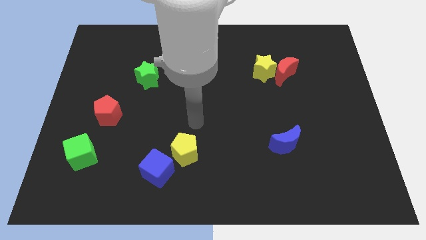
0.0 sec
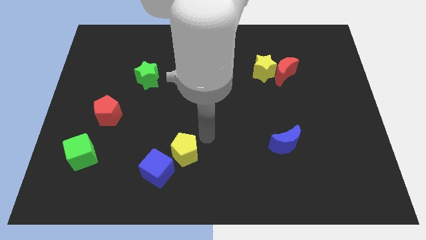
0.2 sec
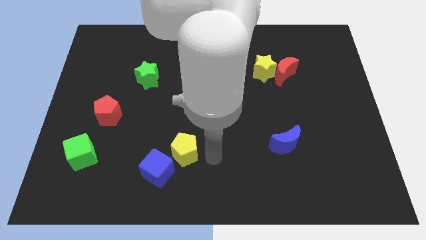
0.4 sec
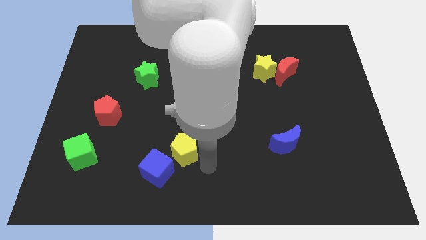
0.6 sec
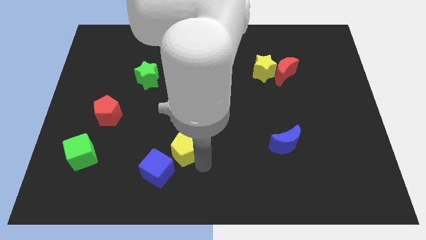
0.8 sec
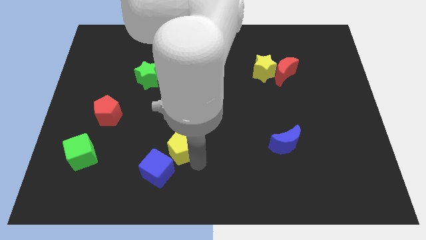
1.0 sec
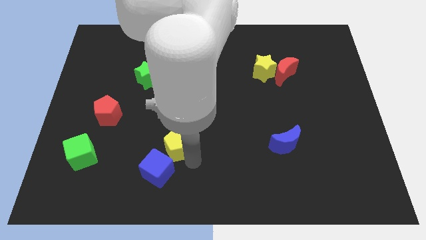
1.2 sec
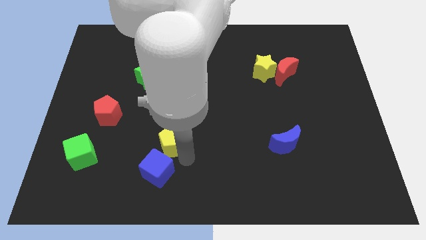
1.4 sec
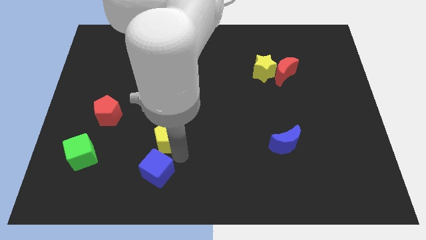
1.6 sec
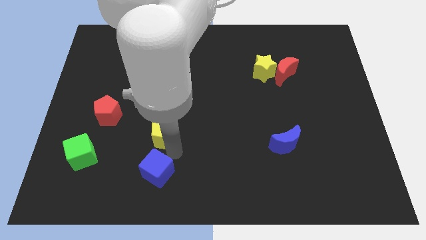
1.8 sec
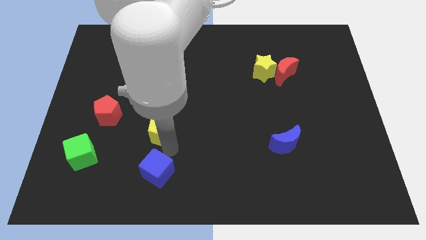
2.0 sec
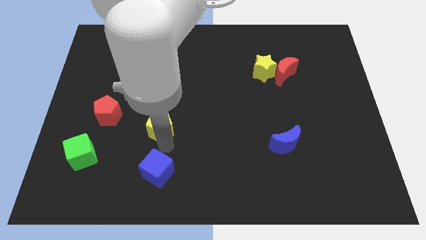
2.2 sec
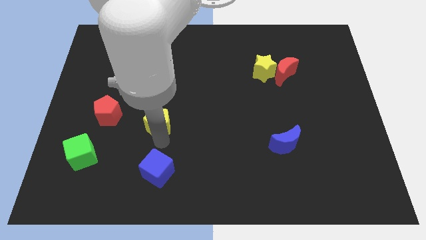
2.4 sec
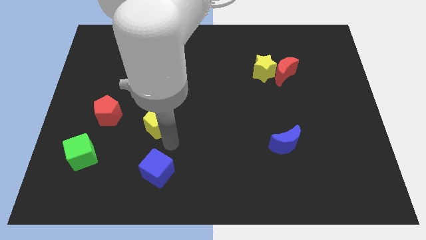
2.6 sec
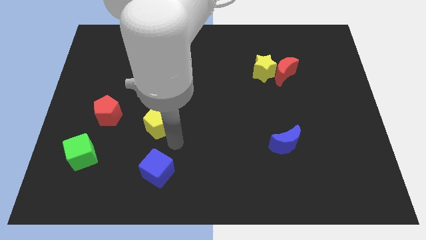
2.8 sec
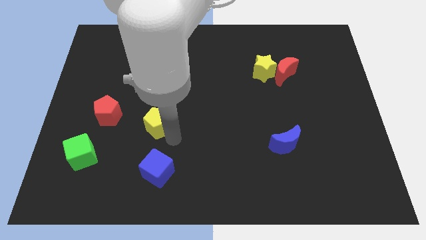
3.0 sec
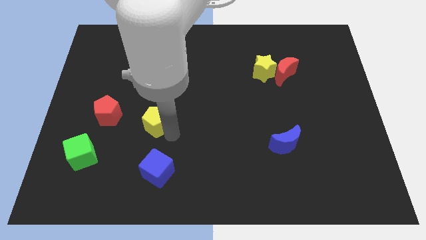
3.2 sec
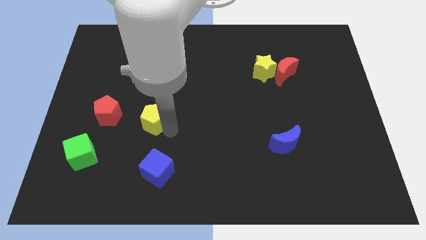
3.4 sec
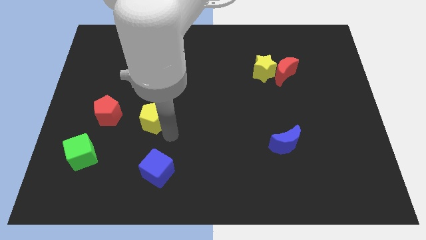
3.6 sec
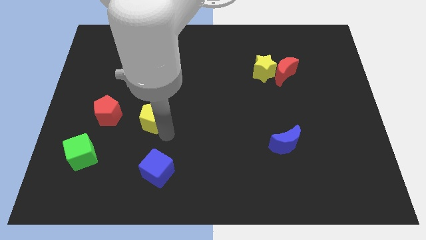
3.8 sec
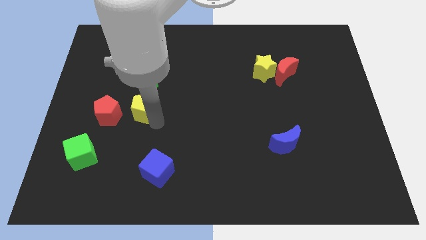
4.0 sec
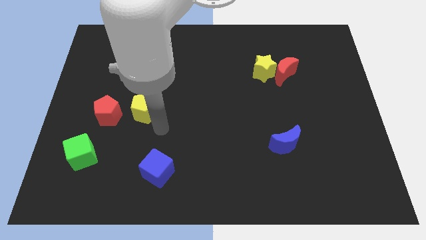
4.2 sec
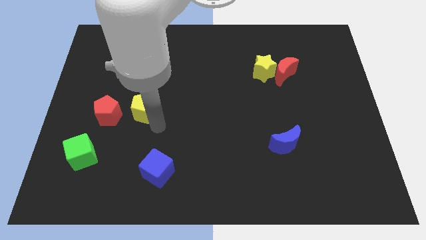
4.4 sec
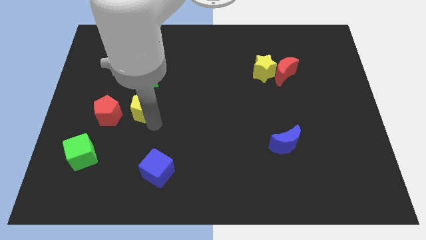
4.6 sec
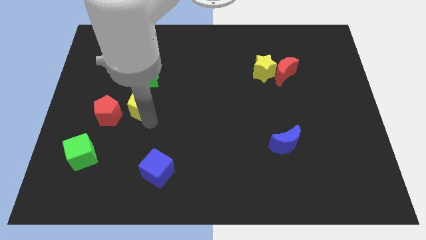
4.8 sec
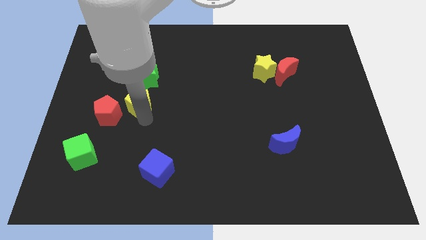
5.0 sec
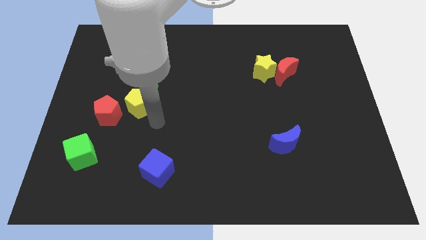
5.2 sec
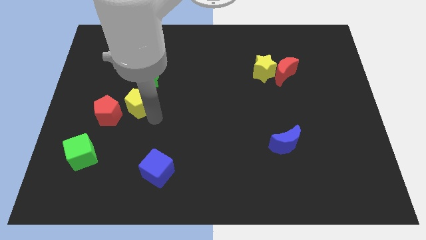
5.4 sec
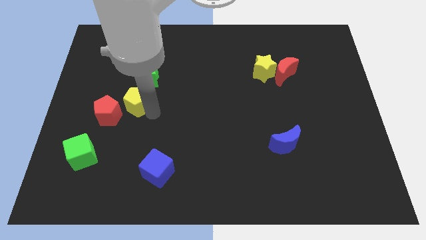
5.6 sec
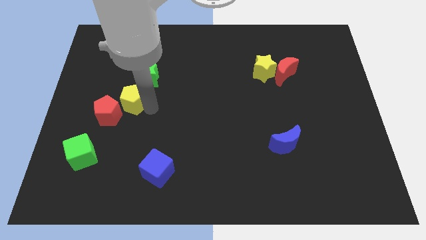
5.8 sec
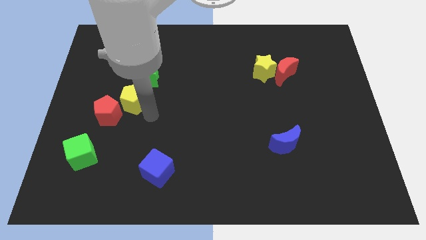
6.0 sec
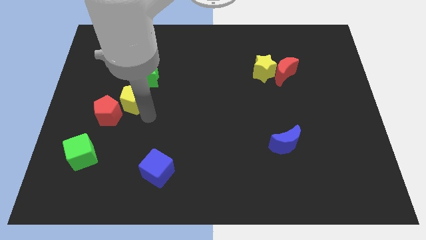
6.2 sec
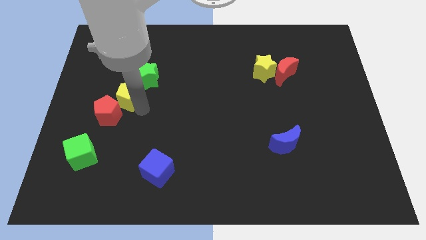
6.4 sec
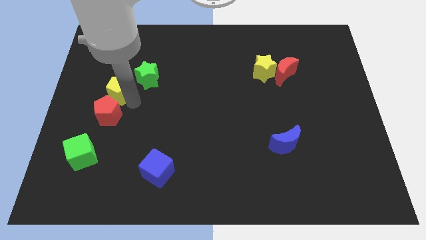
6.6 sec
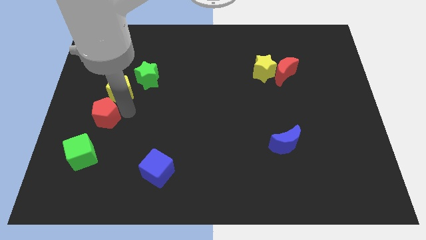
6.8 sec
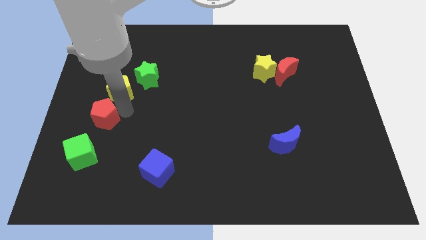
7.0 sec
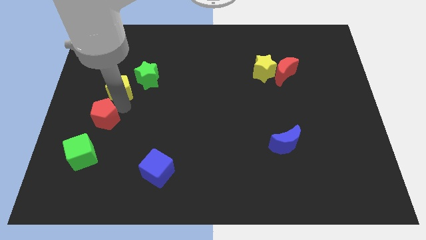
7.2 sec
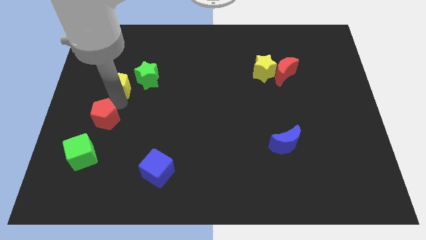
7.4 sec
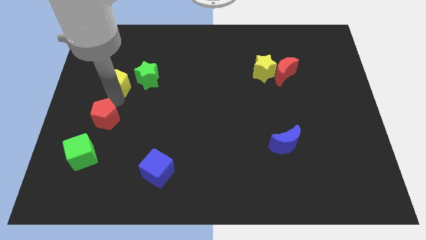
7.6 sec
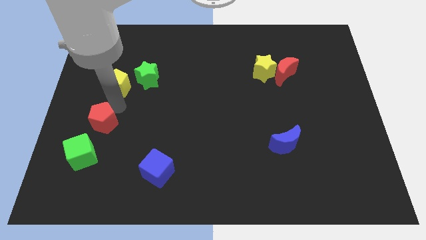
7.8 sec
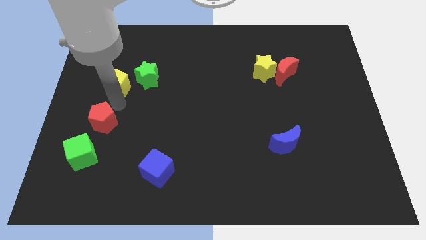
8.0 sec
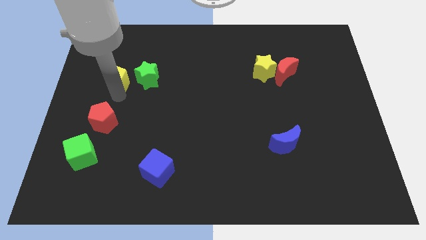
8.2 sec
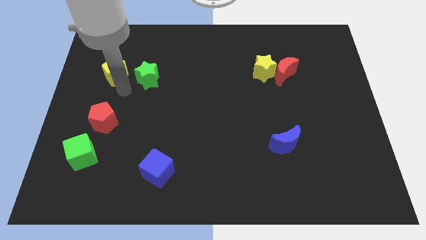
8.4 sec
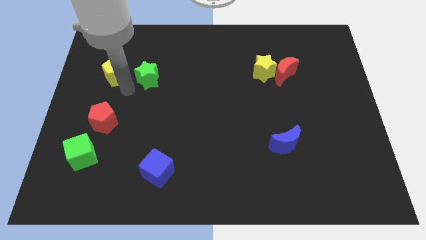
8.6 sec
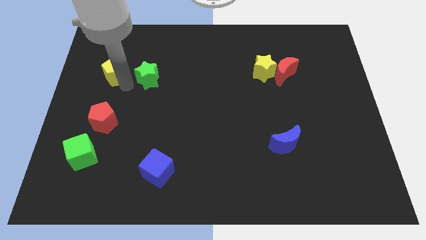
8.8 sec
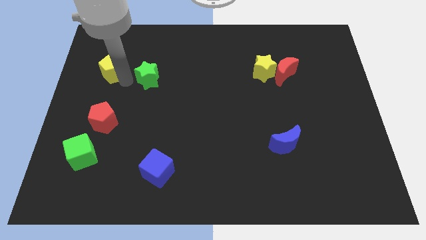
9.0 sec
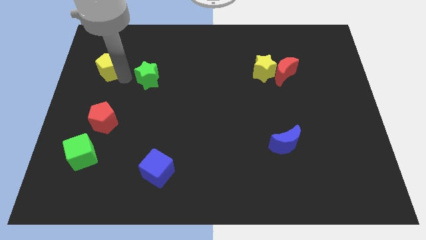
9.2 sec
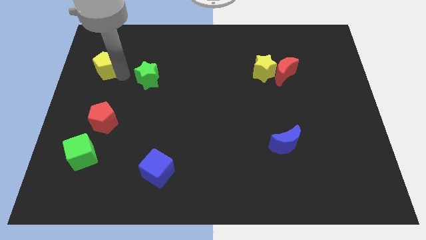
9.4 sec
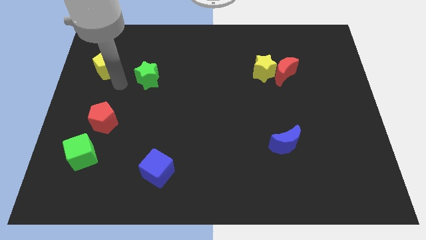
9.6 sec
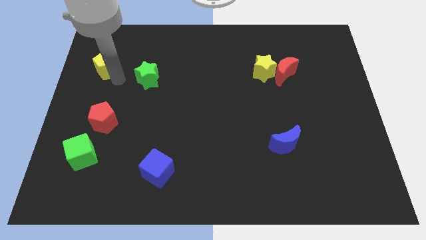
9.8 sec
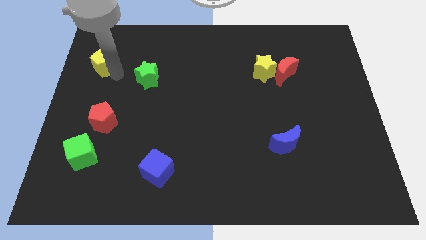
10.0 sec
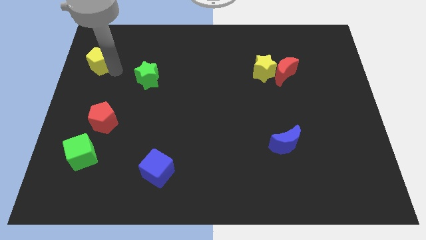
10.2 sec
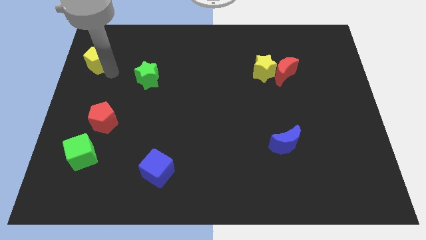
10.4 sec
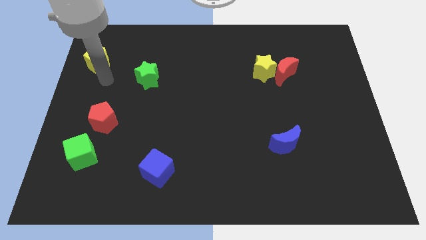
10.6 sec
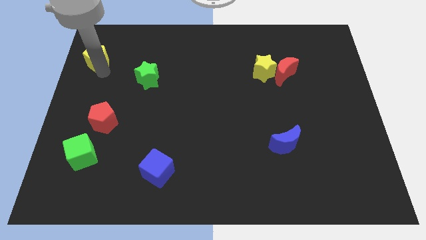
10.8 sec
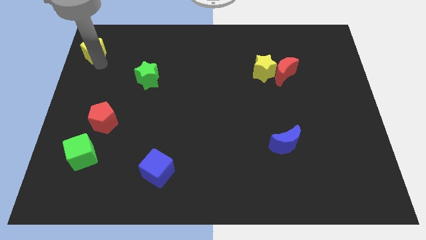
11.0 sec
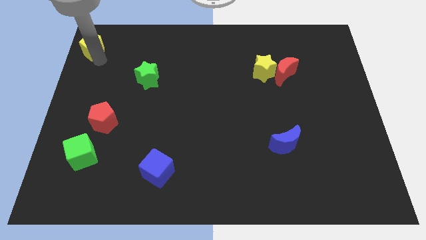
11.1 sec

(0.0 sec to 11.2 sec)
slide the yellow pentagon to the top left corner

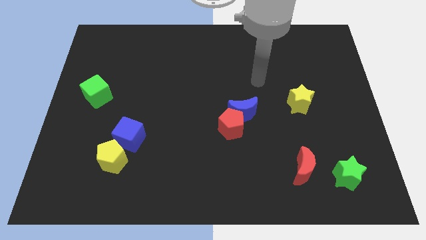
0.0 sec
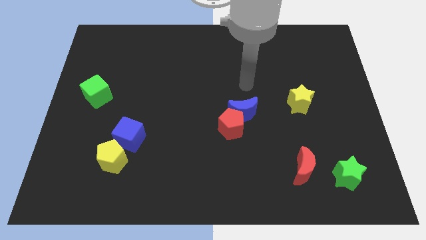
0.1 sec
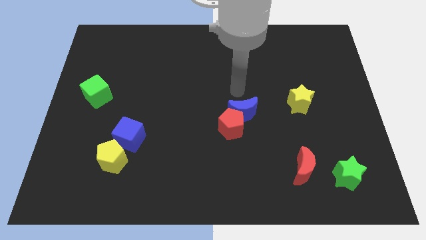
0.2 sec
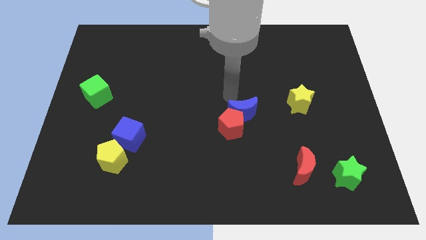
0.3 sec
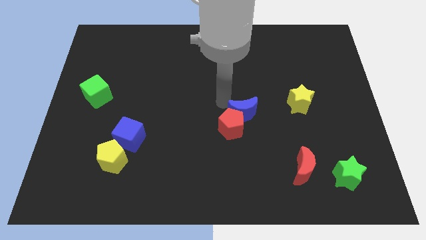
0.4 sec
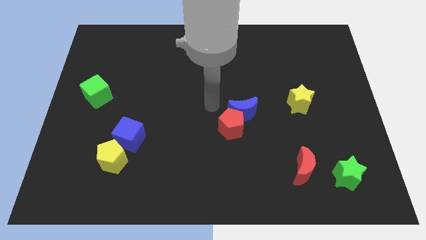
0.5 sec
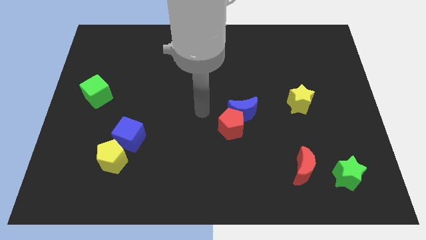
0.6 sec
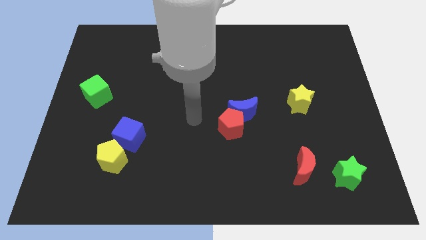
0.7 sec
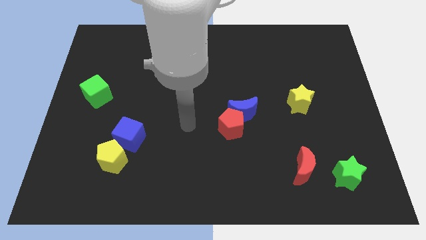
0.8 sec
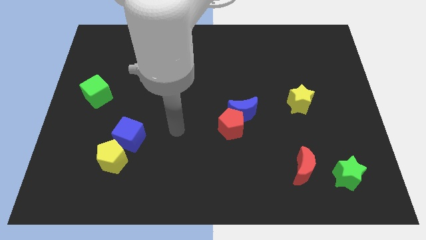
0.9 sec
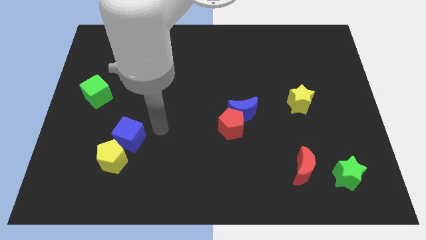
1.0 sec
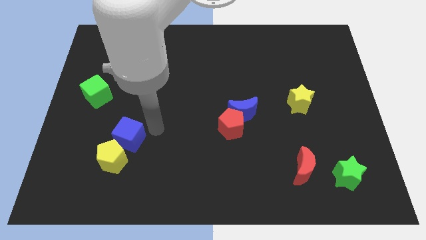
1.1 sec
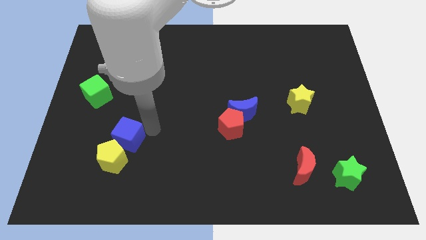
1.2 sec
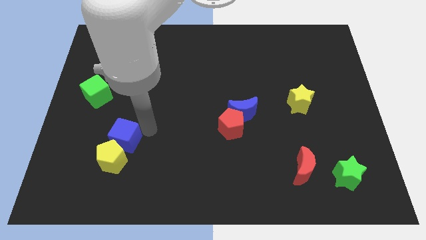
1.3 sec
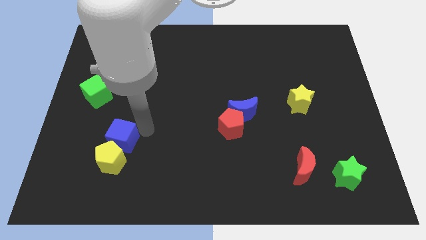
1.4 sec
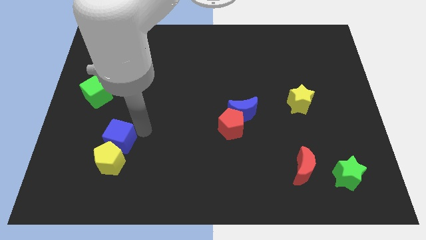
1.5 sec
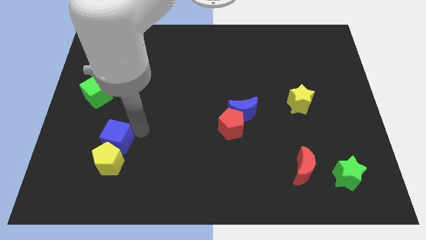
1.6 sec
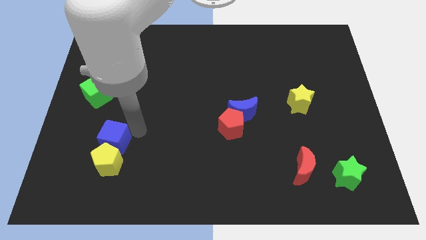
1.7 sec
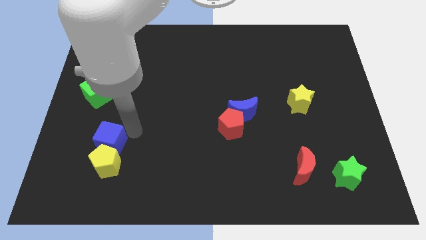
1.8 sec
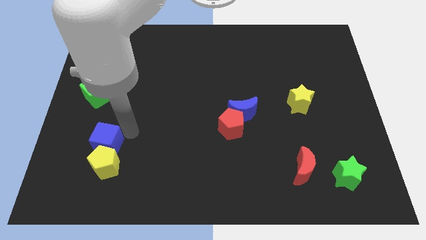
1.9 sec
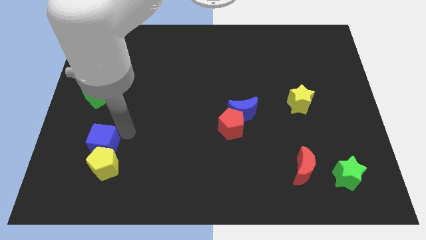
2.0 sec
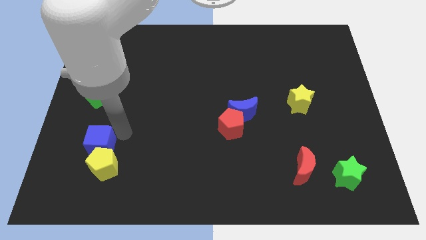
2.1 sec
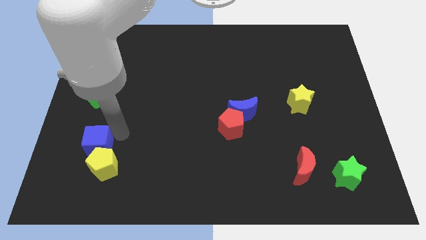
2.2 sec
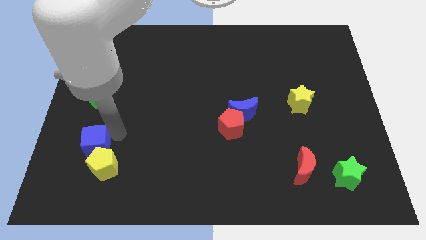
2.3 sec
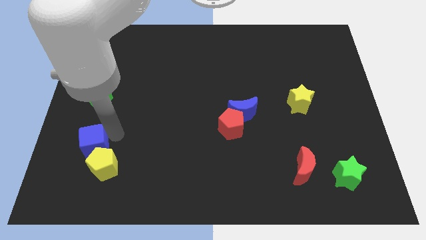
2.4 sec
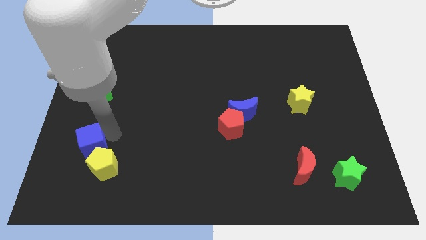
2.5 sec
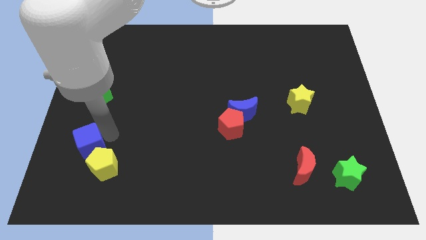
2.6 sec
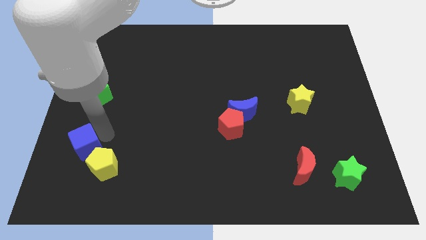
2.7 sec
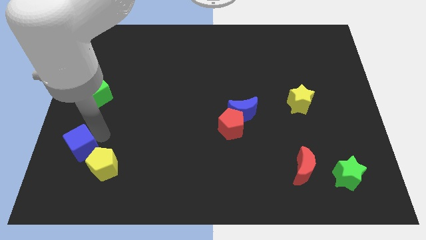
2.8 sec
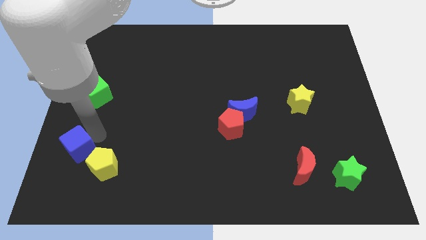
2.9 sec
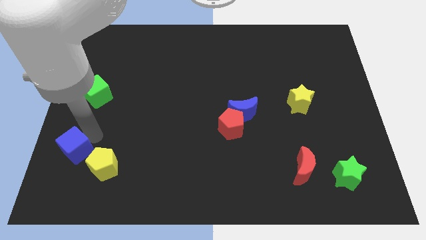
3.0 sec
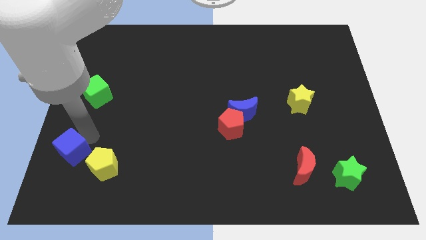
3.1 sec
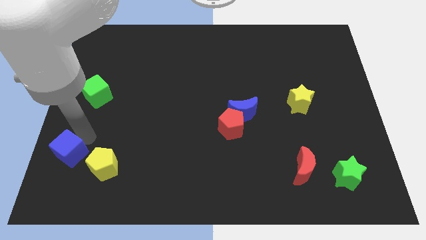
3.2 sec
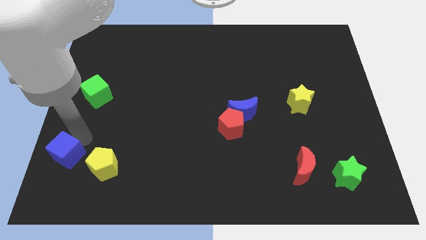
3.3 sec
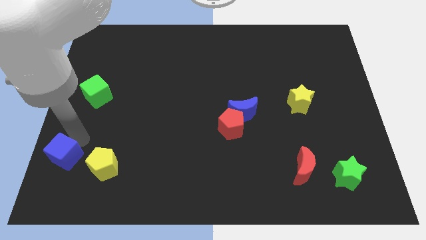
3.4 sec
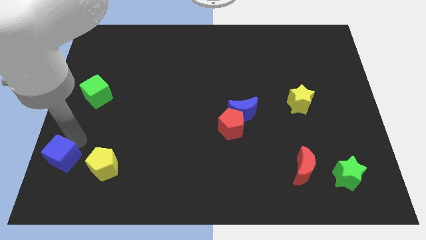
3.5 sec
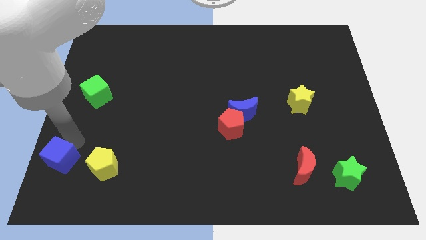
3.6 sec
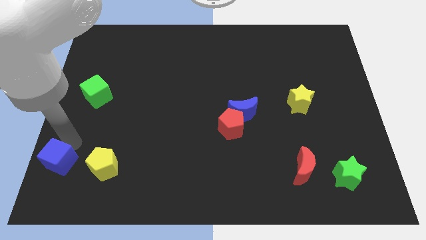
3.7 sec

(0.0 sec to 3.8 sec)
move the blue cube to the bottom left corner
